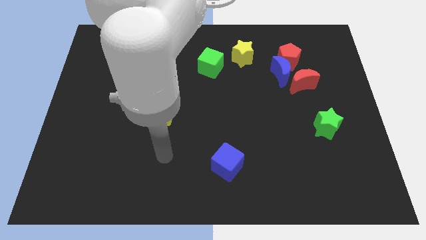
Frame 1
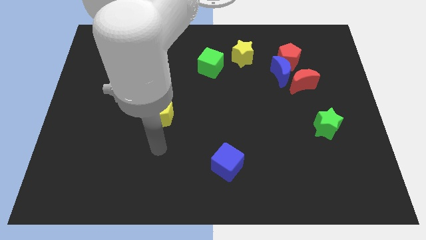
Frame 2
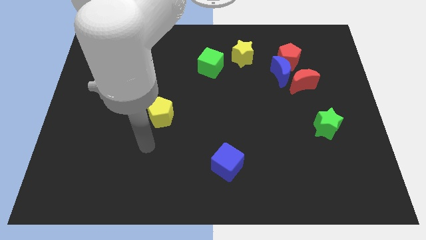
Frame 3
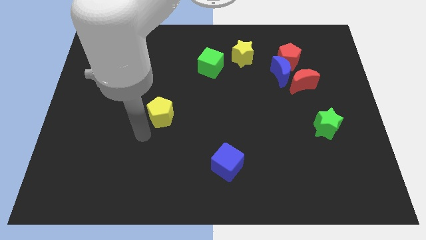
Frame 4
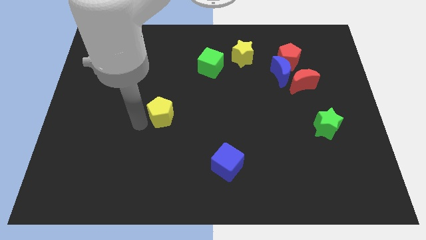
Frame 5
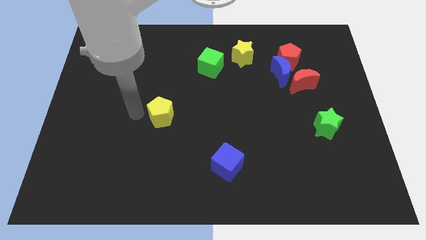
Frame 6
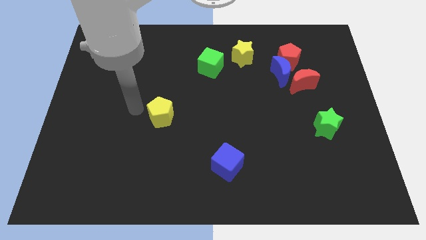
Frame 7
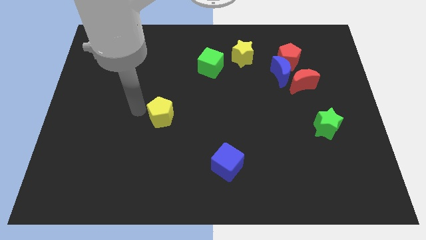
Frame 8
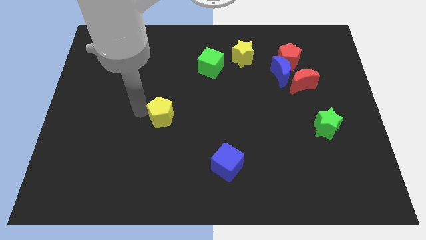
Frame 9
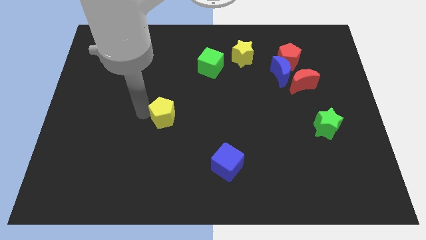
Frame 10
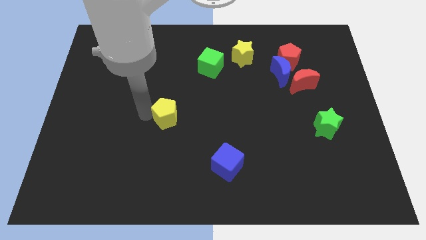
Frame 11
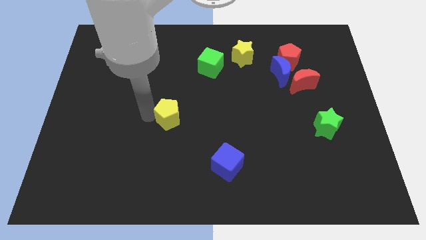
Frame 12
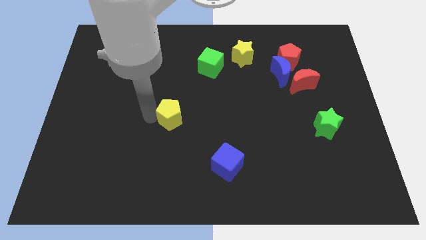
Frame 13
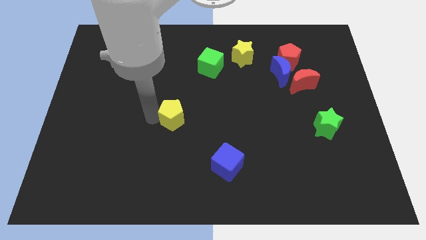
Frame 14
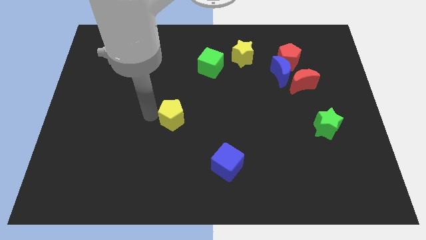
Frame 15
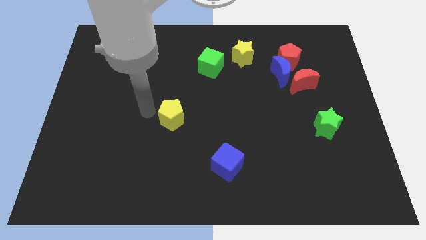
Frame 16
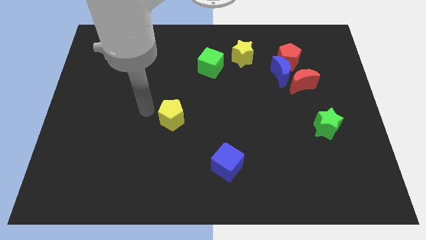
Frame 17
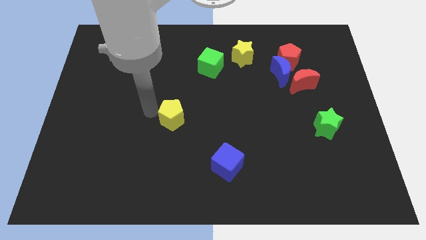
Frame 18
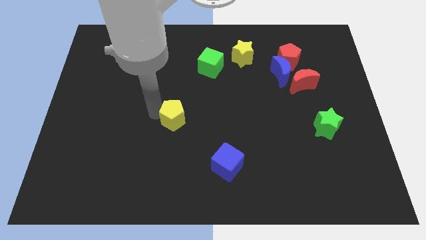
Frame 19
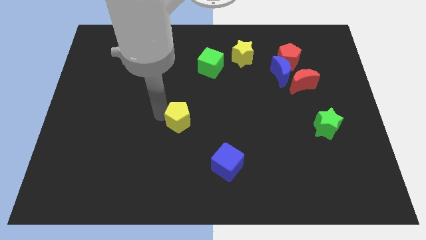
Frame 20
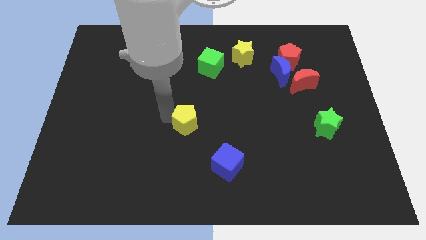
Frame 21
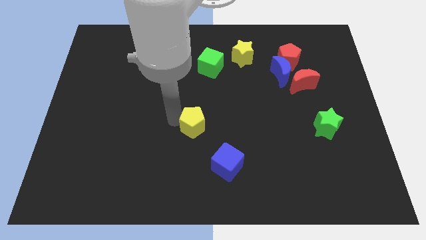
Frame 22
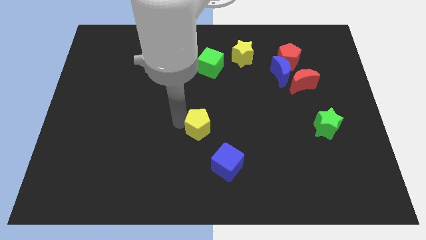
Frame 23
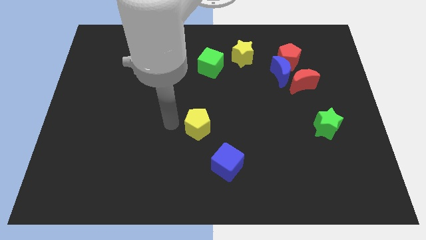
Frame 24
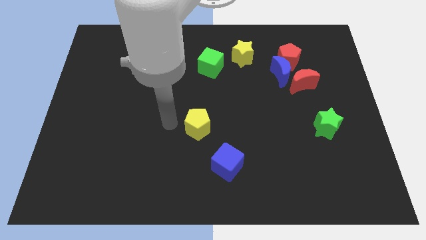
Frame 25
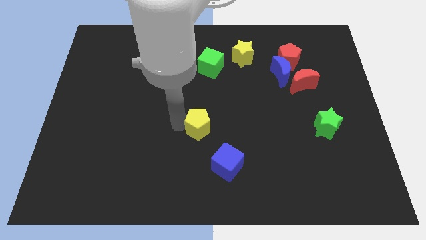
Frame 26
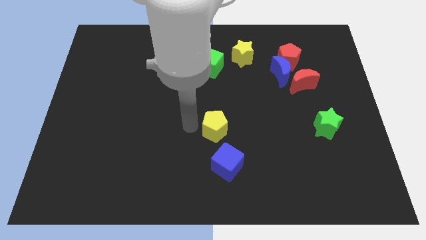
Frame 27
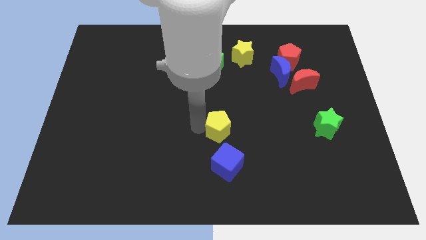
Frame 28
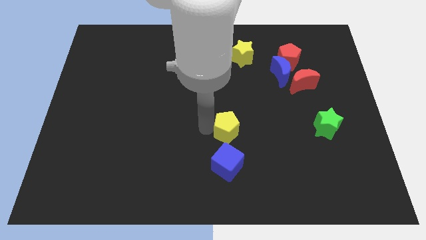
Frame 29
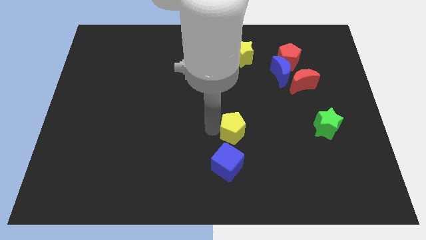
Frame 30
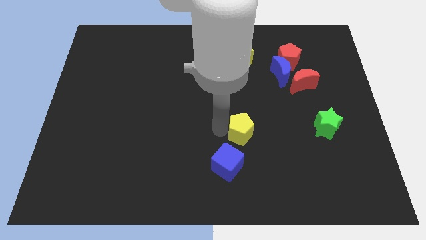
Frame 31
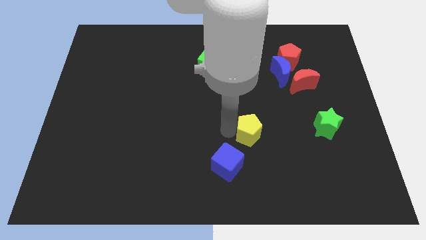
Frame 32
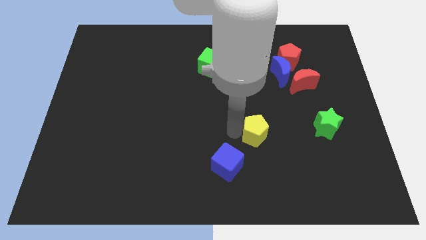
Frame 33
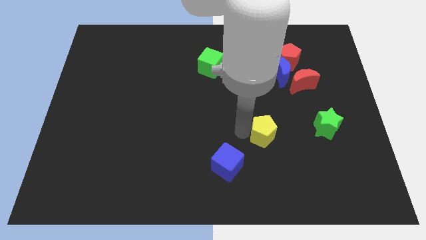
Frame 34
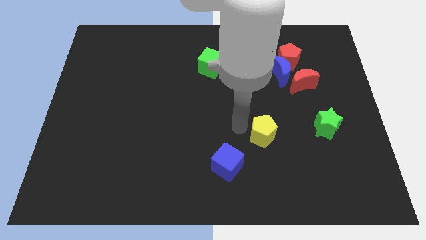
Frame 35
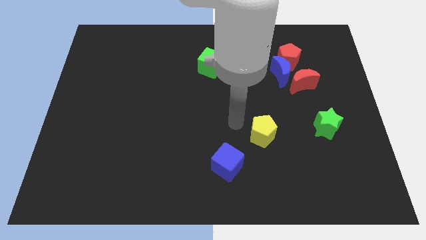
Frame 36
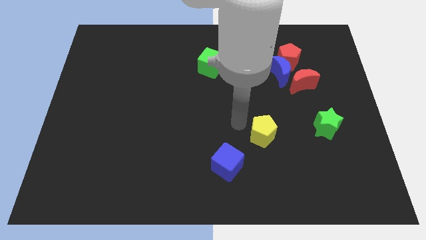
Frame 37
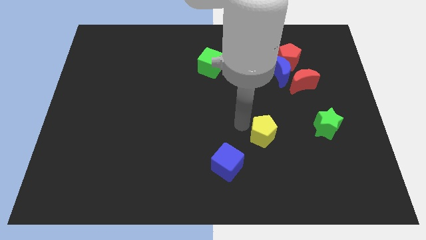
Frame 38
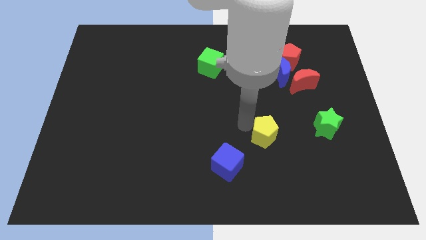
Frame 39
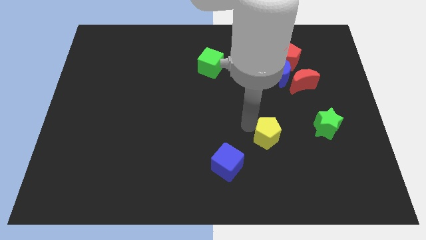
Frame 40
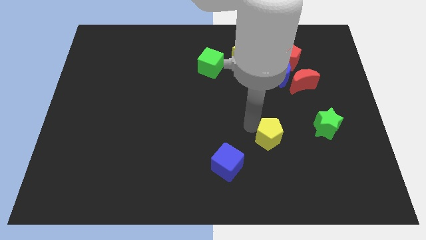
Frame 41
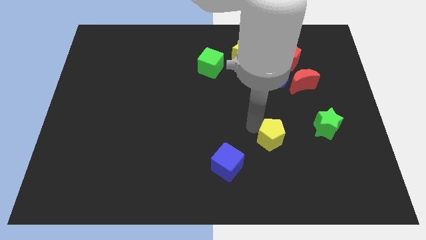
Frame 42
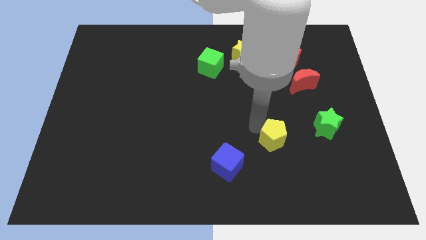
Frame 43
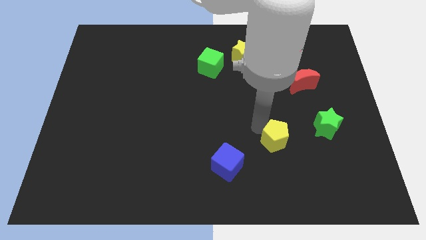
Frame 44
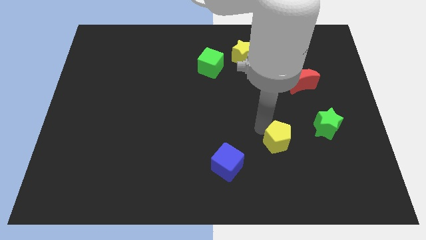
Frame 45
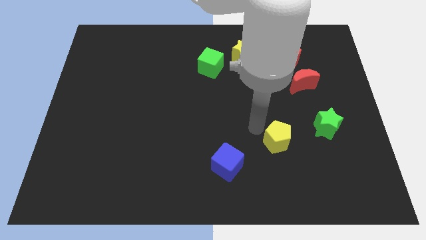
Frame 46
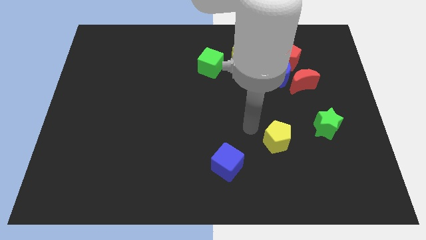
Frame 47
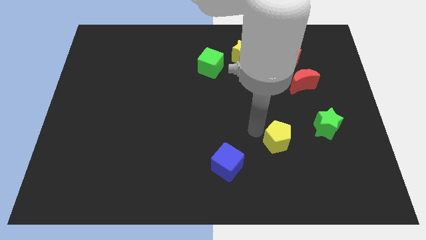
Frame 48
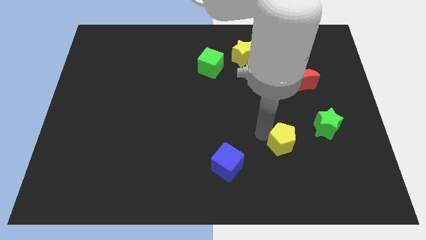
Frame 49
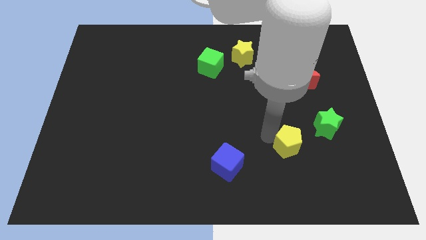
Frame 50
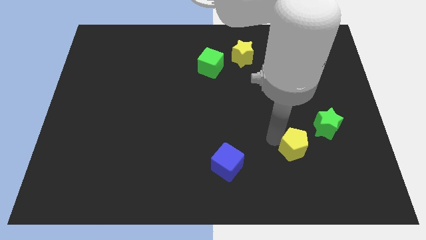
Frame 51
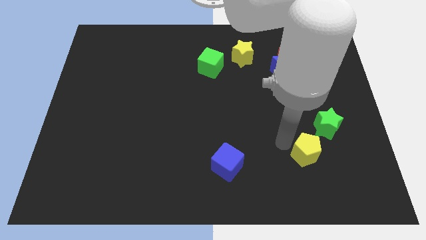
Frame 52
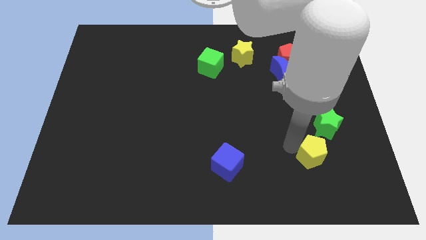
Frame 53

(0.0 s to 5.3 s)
push the yellow pentagon to the bottom of the green star
